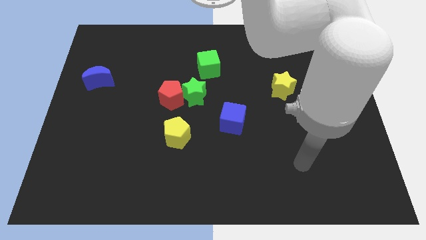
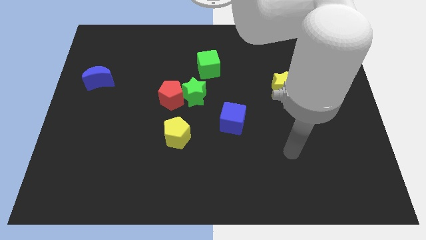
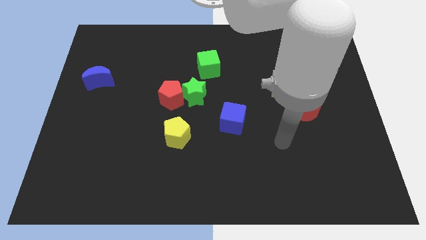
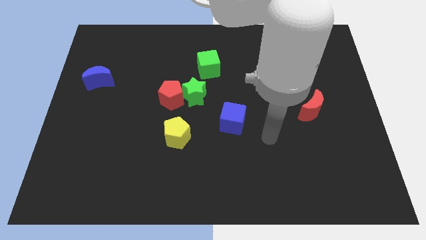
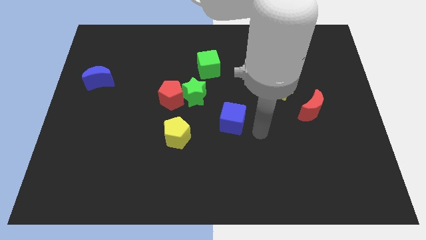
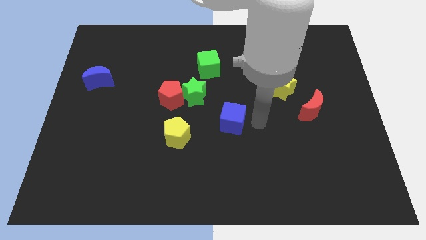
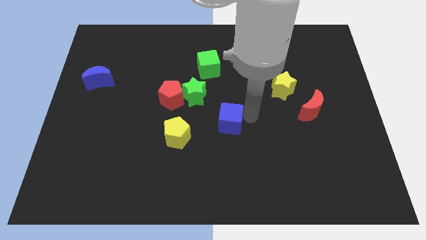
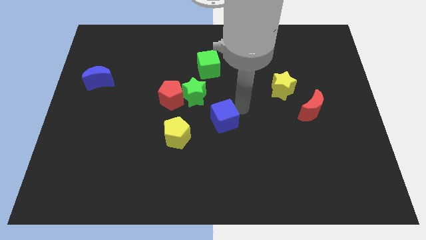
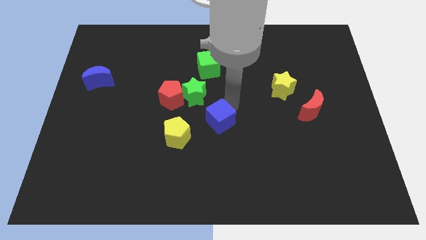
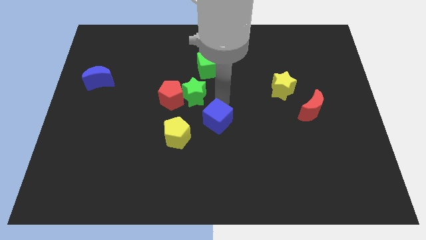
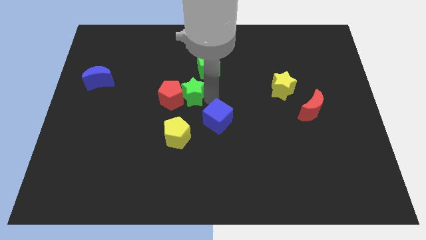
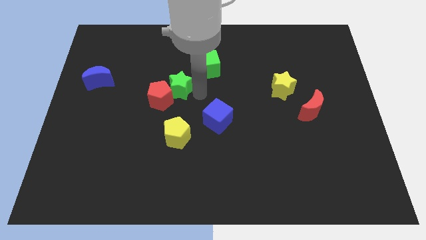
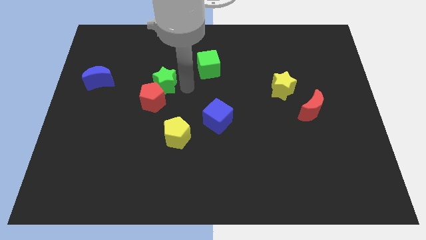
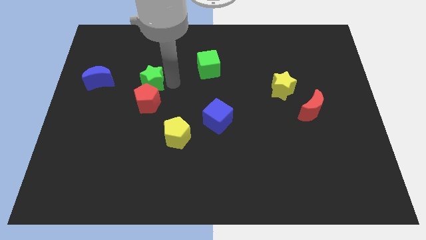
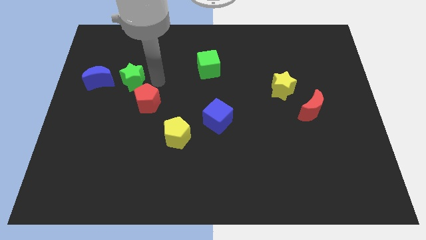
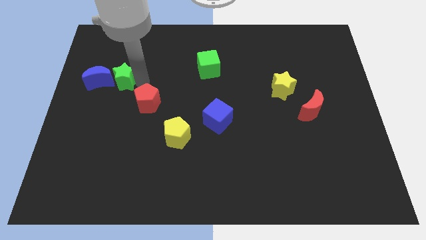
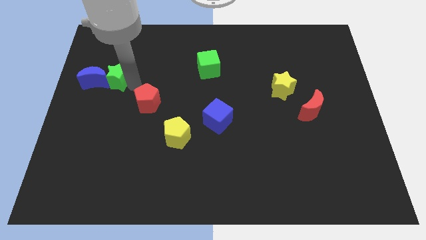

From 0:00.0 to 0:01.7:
separate the red pentagon from the green star

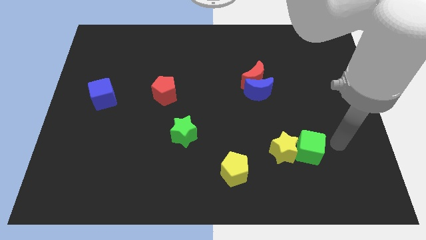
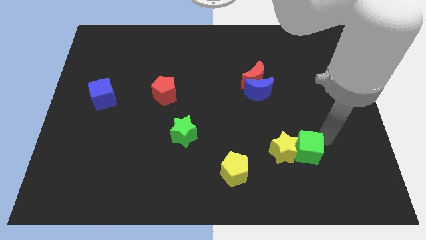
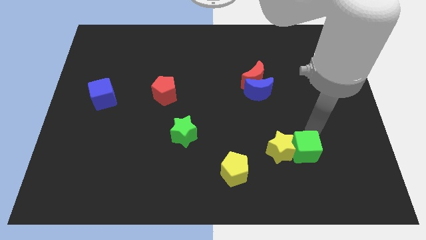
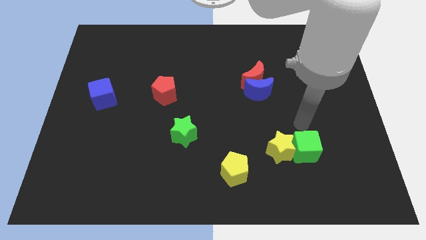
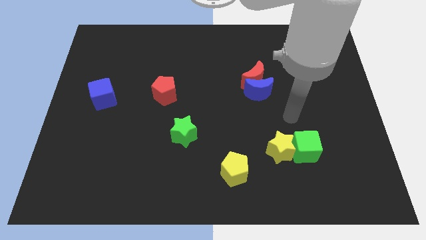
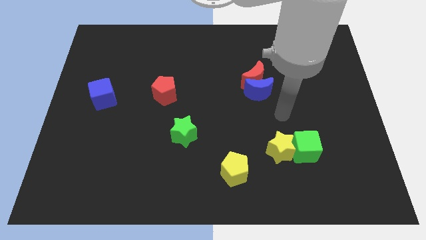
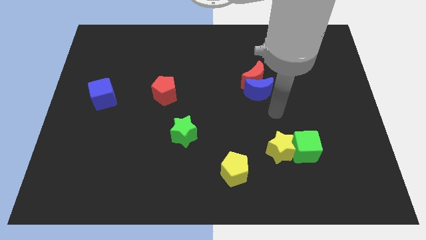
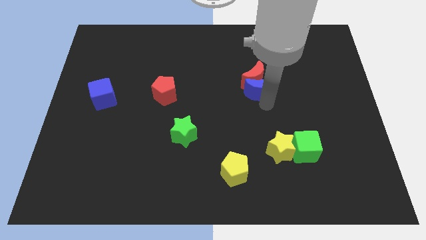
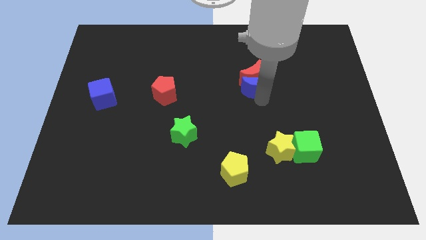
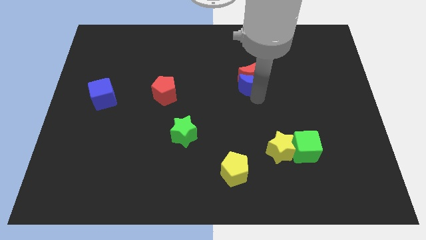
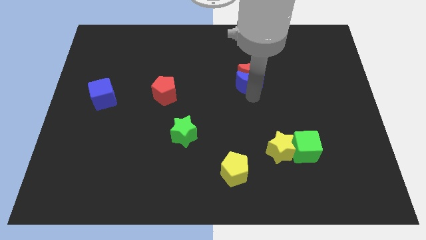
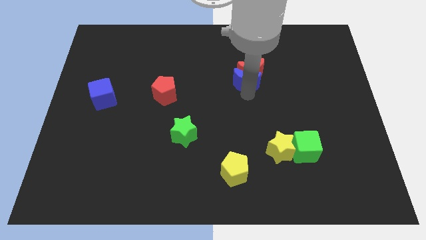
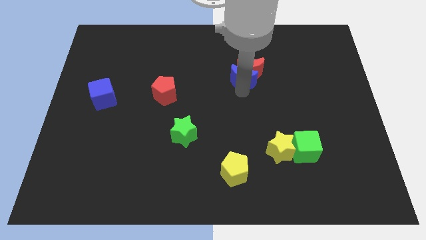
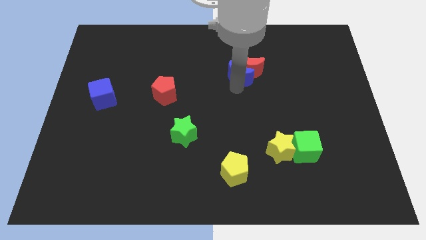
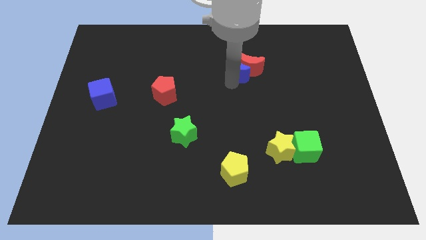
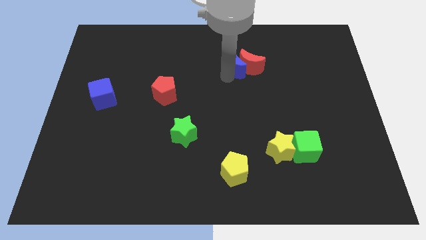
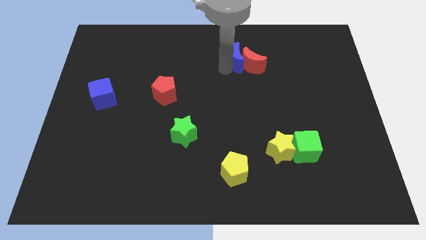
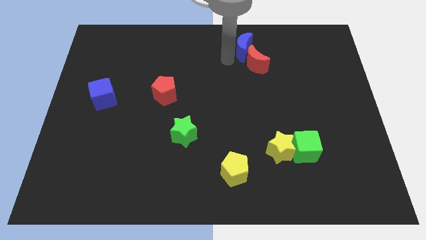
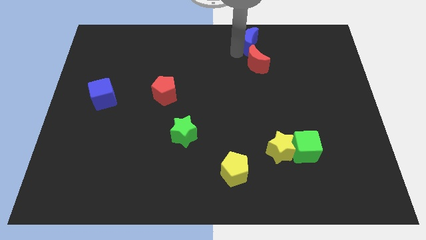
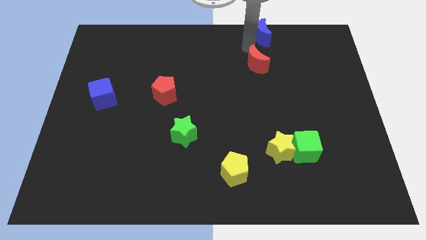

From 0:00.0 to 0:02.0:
separate the red moon from the blue moon

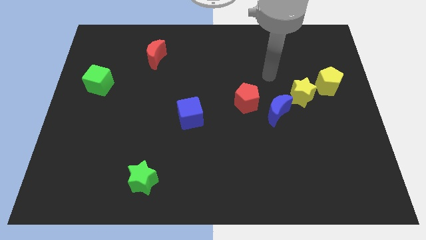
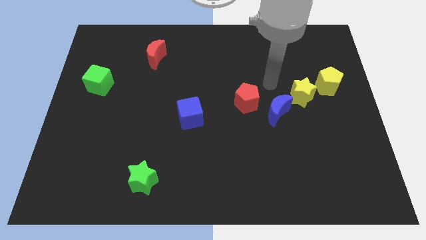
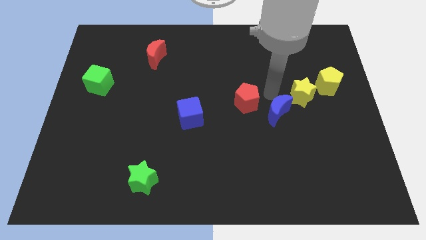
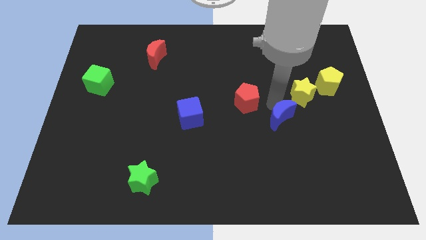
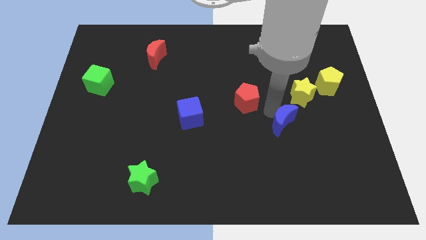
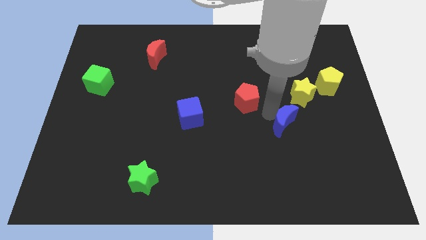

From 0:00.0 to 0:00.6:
pull the red pentagon apart from the blue moon

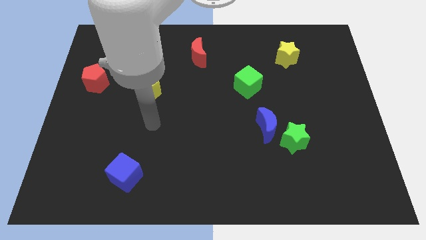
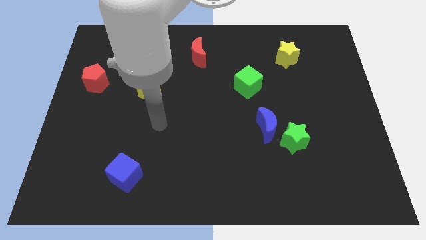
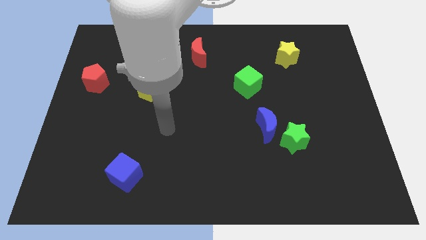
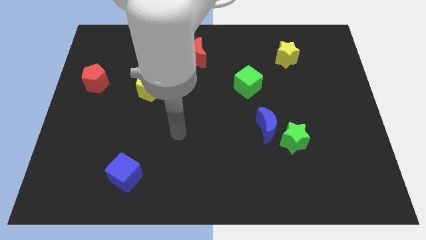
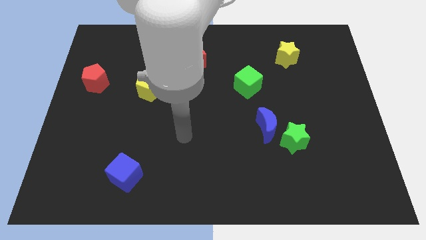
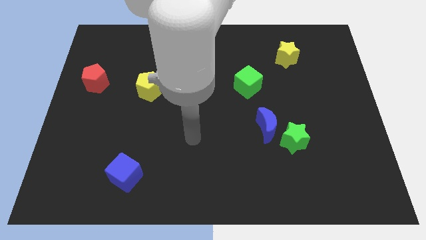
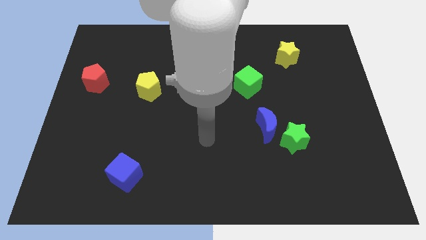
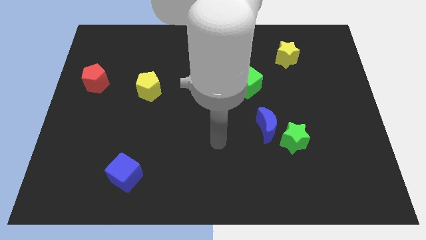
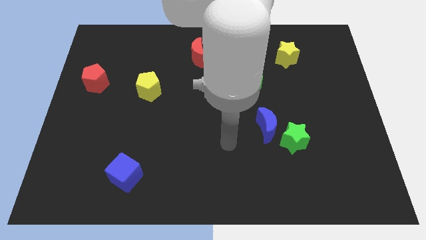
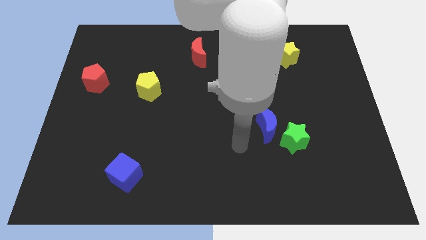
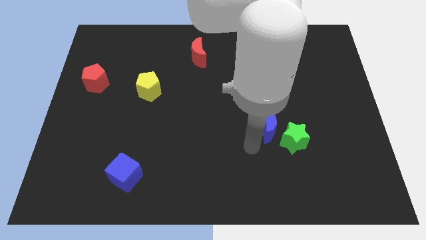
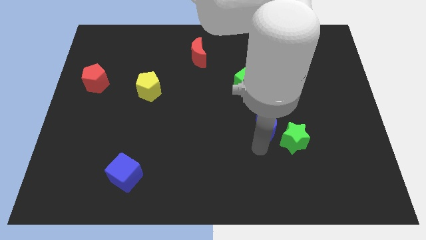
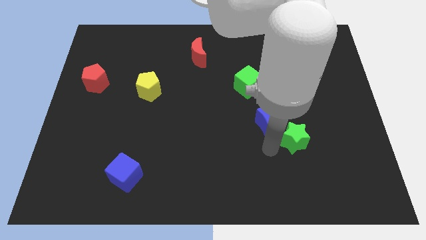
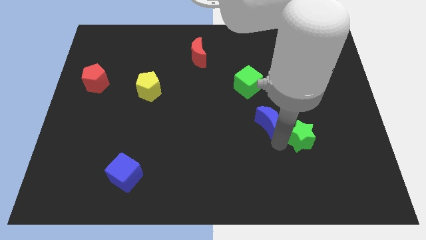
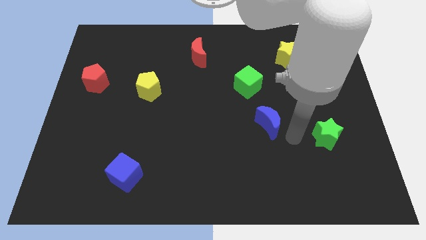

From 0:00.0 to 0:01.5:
separate the blue moon from the green star

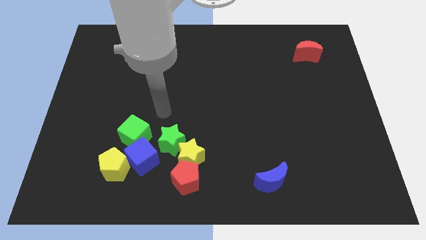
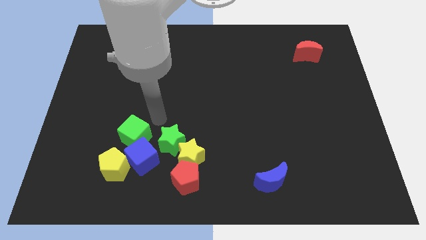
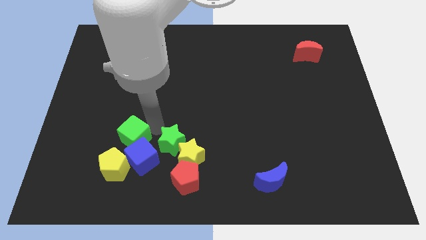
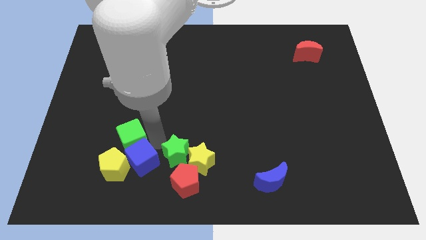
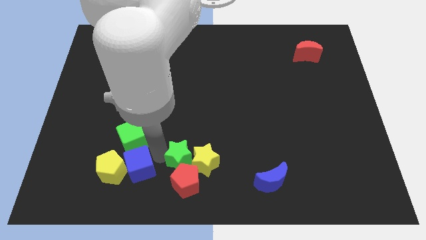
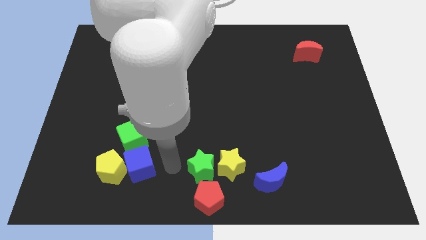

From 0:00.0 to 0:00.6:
separate the yellow star from the group of blocks

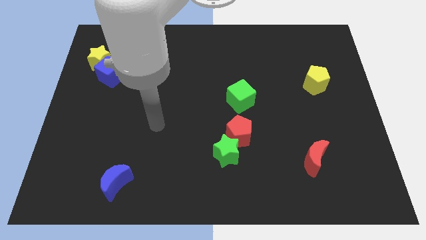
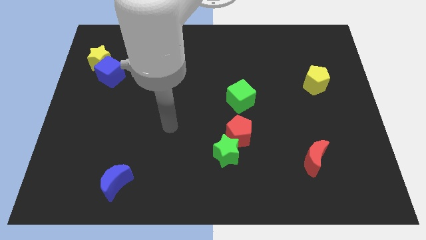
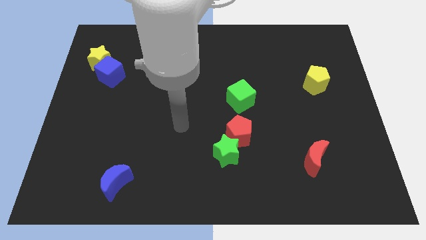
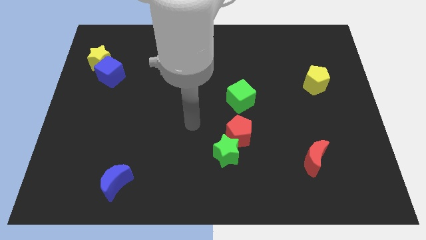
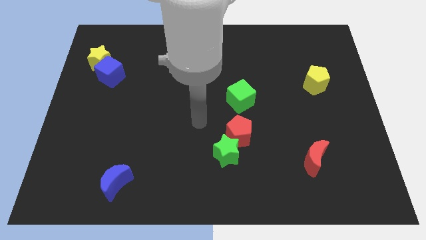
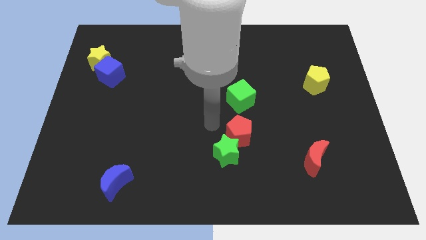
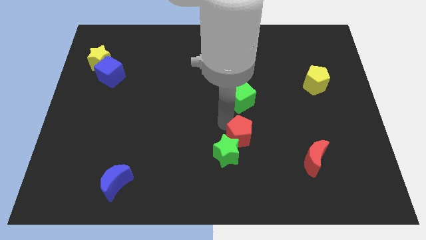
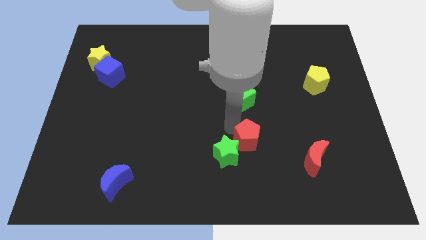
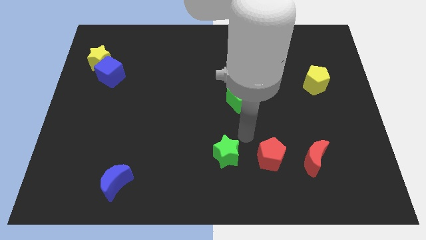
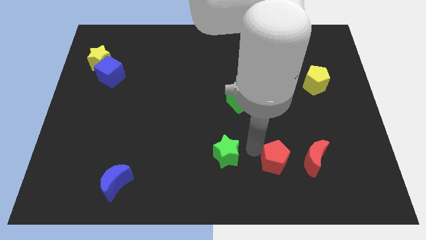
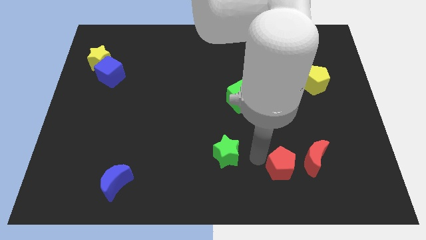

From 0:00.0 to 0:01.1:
pull the green star apart from the red pentagon

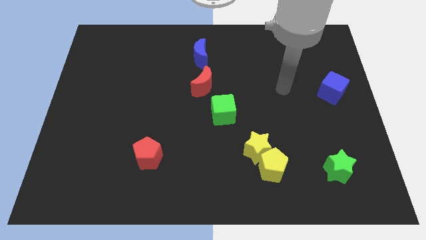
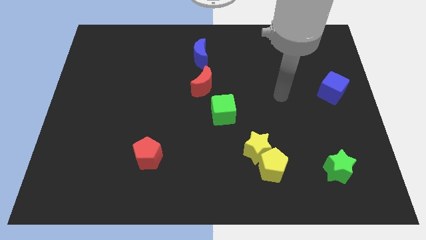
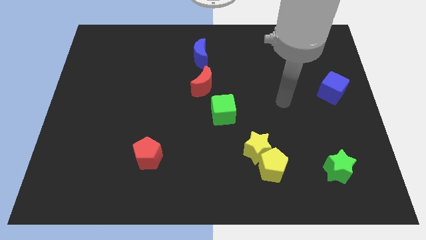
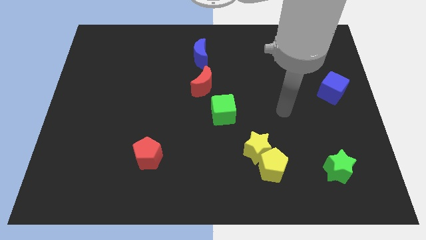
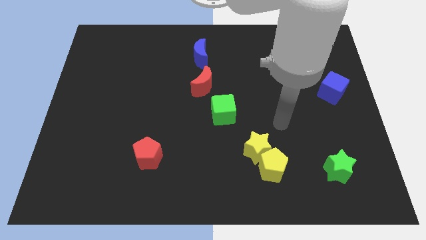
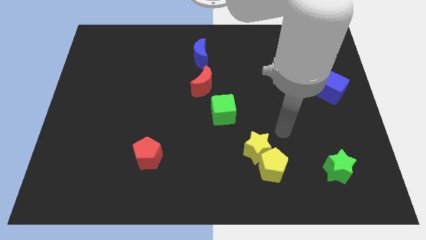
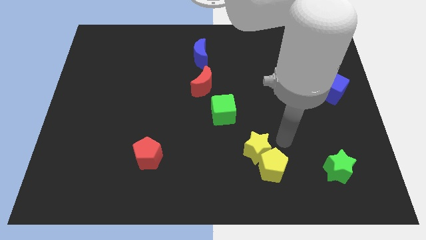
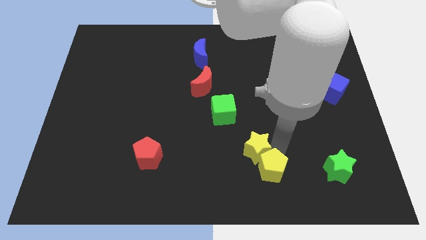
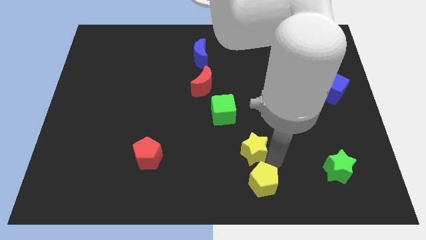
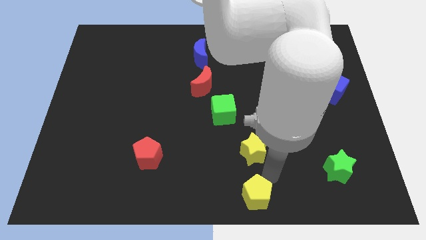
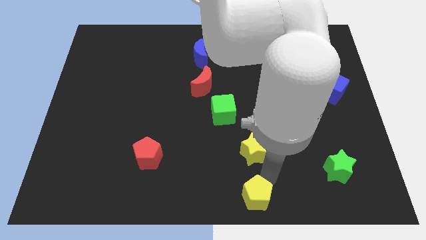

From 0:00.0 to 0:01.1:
pull the yellow star apart from the yellow pentagon

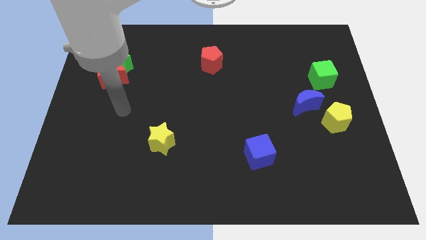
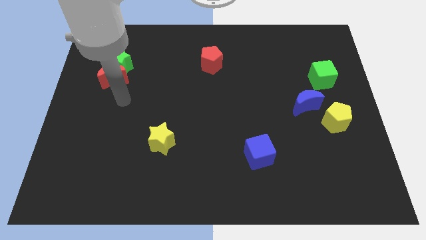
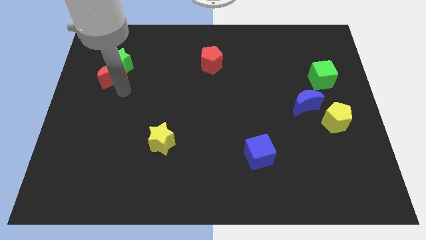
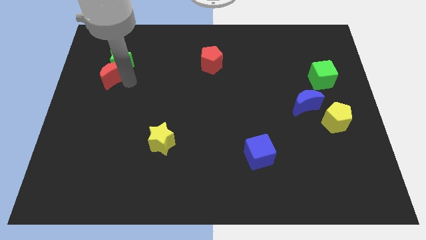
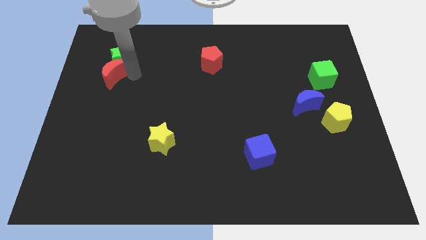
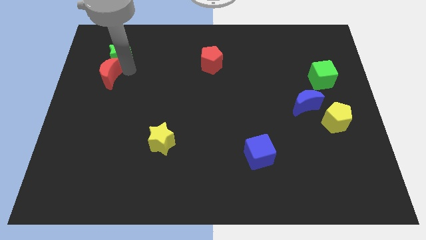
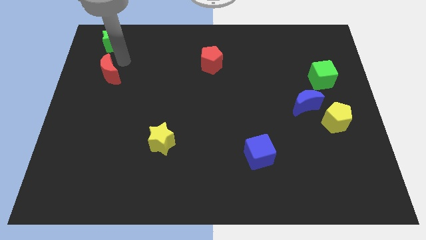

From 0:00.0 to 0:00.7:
pull the red moon apart from the green star
